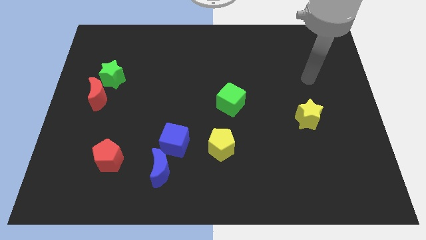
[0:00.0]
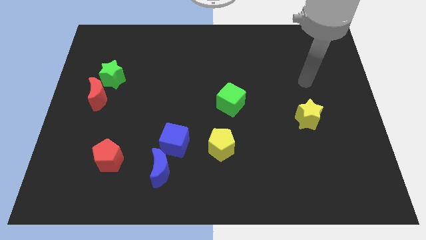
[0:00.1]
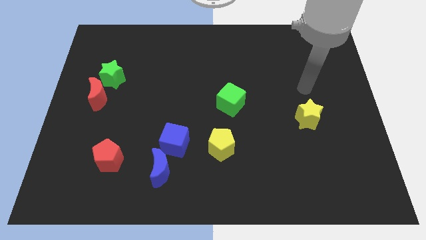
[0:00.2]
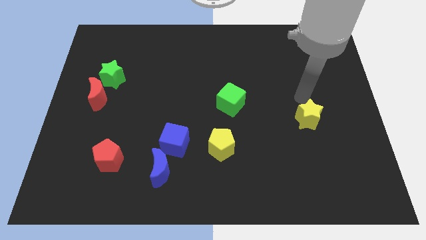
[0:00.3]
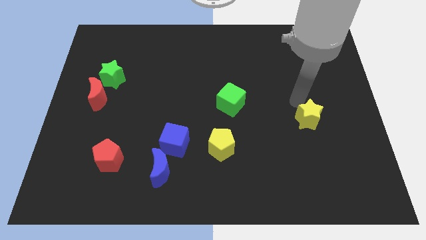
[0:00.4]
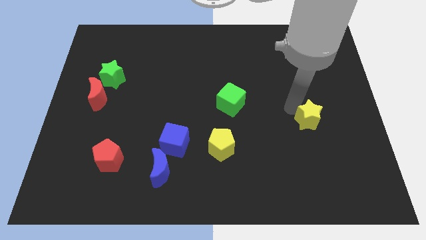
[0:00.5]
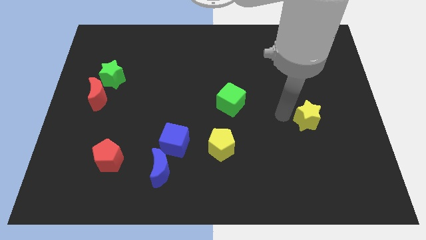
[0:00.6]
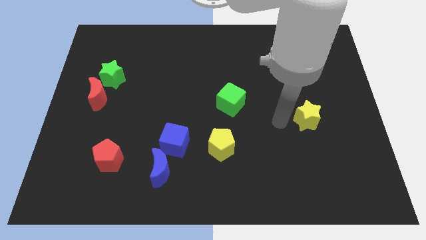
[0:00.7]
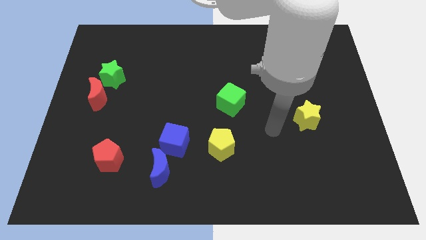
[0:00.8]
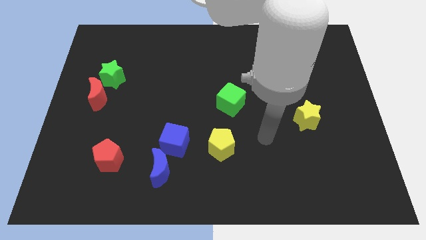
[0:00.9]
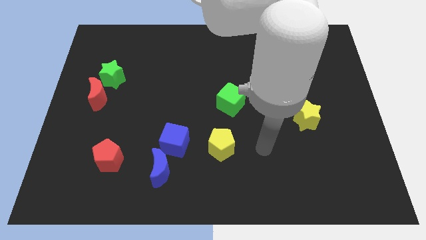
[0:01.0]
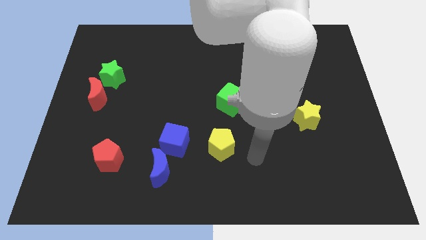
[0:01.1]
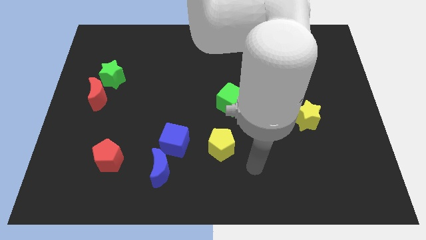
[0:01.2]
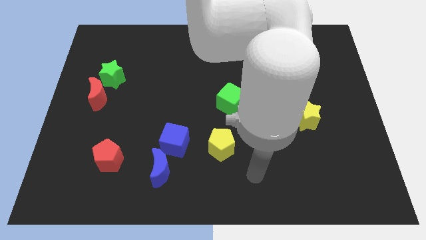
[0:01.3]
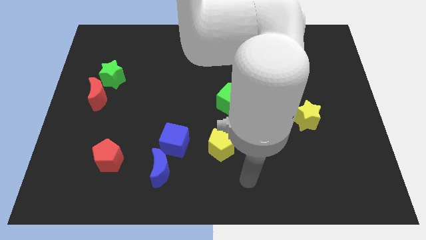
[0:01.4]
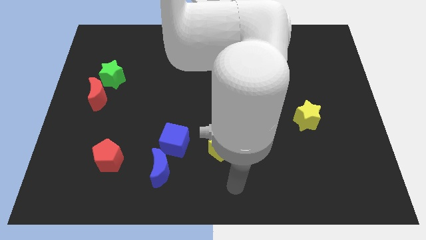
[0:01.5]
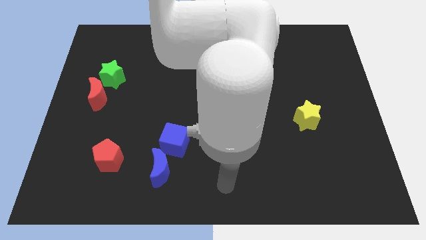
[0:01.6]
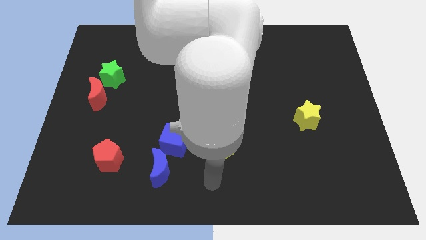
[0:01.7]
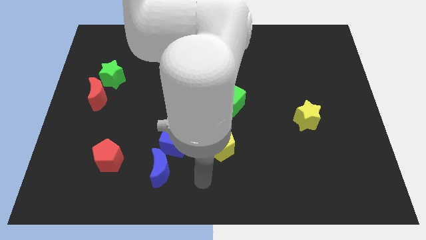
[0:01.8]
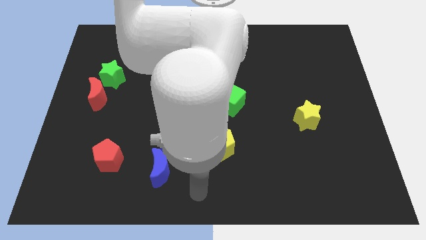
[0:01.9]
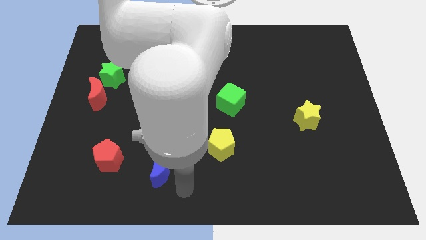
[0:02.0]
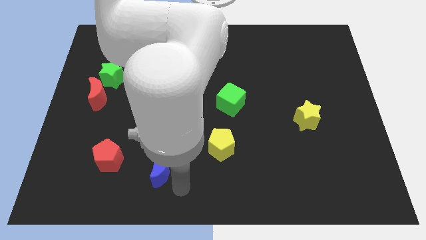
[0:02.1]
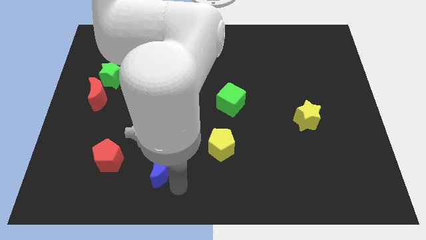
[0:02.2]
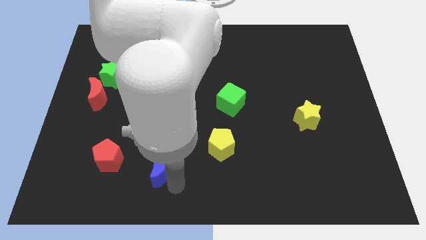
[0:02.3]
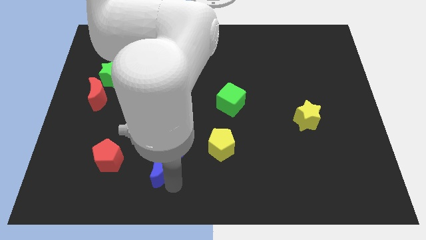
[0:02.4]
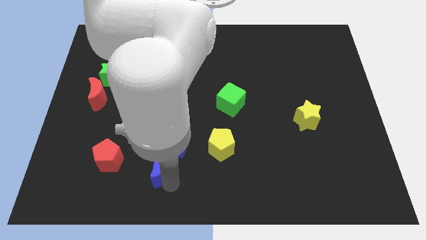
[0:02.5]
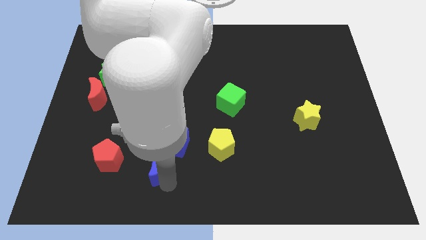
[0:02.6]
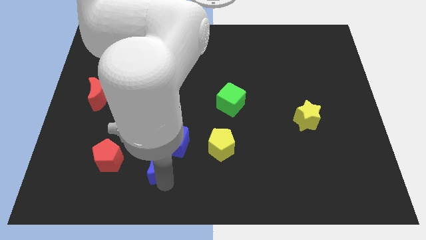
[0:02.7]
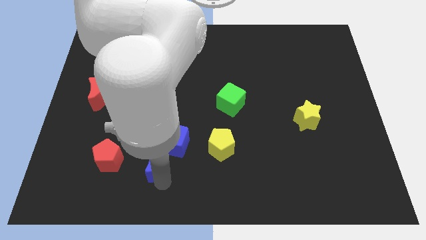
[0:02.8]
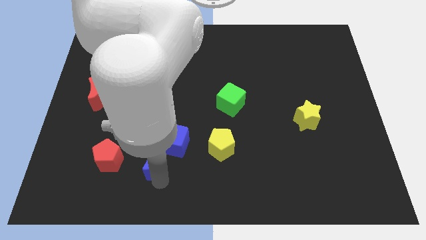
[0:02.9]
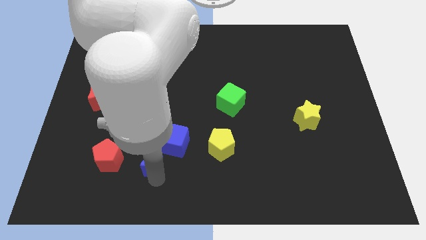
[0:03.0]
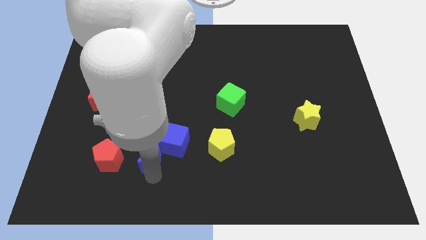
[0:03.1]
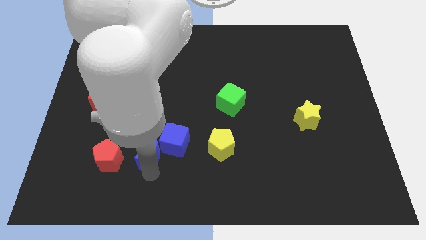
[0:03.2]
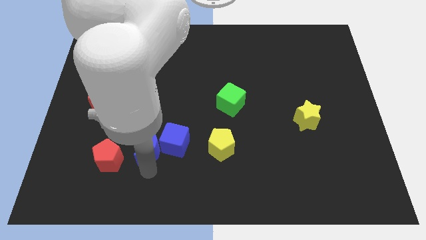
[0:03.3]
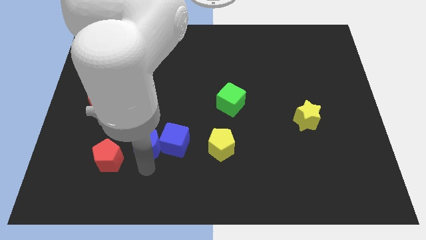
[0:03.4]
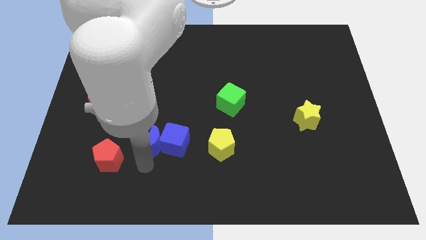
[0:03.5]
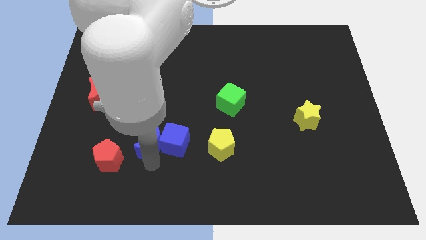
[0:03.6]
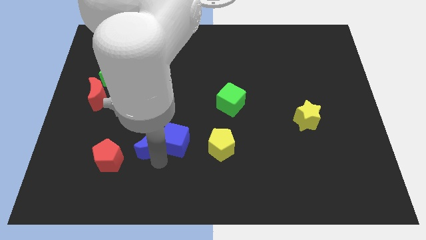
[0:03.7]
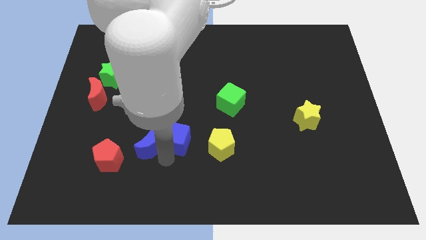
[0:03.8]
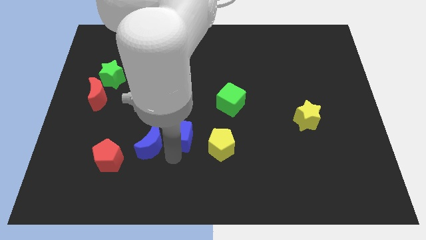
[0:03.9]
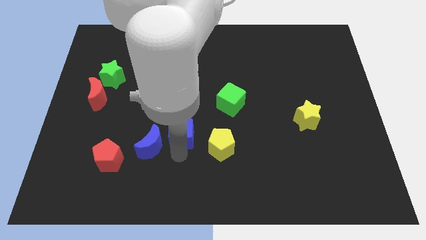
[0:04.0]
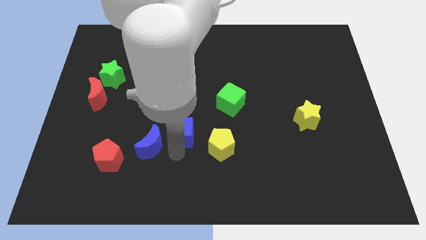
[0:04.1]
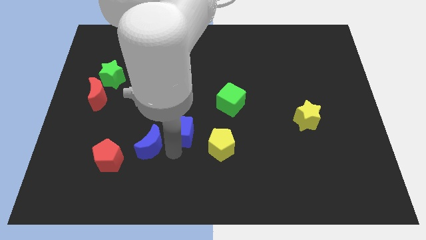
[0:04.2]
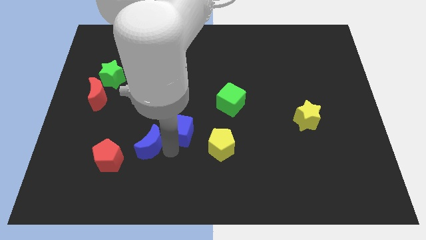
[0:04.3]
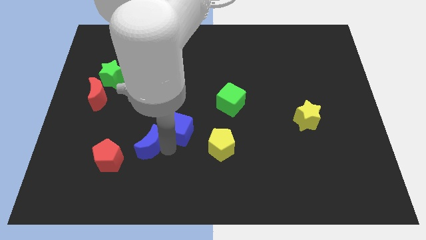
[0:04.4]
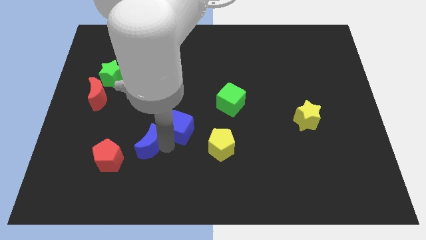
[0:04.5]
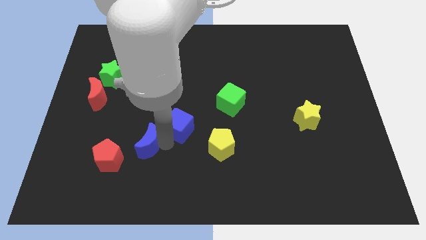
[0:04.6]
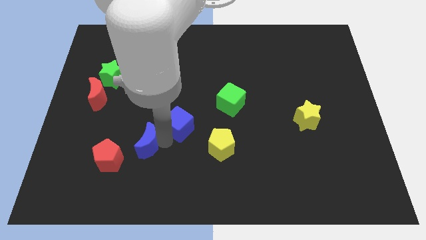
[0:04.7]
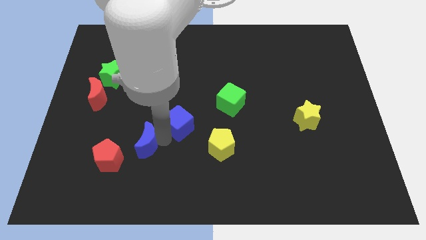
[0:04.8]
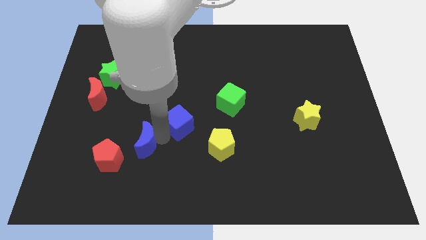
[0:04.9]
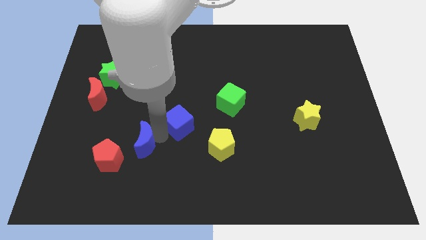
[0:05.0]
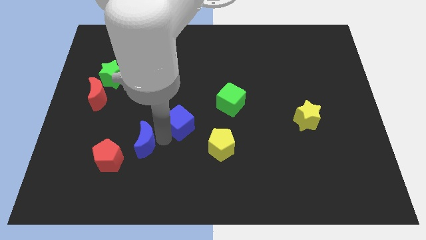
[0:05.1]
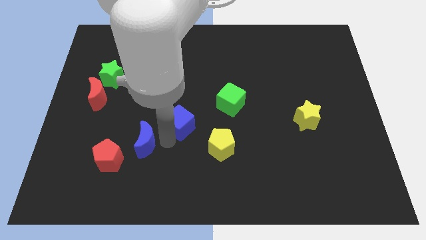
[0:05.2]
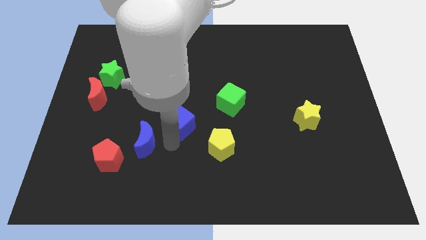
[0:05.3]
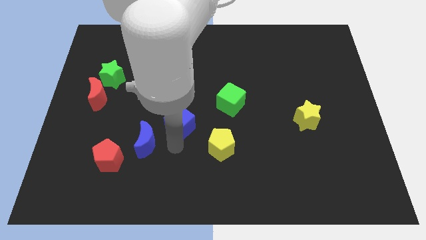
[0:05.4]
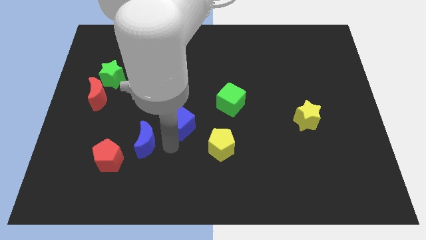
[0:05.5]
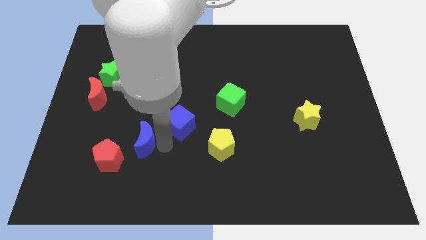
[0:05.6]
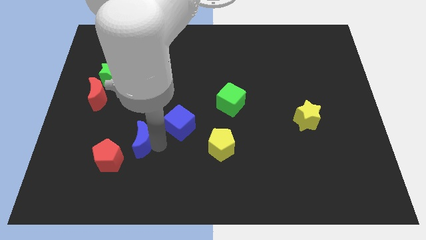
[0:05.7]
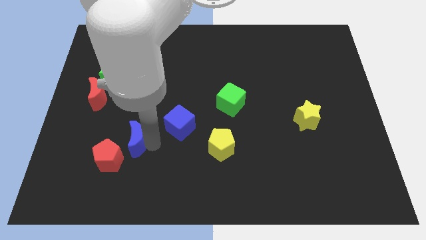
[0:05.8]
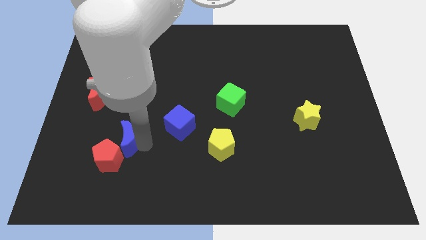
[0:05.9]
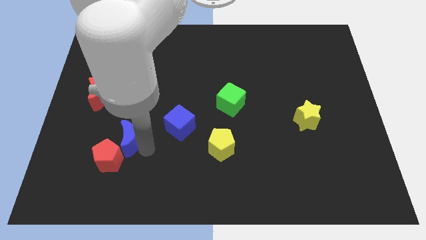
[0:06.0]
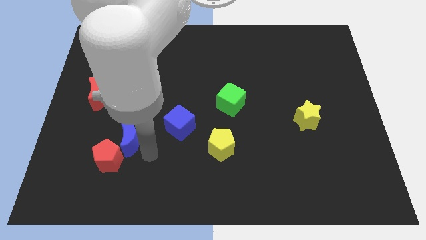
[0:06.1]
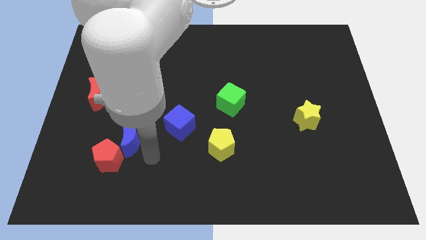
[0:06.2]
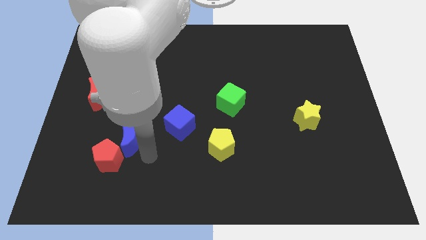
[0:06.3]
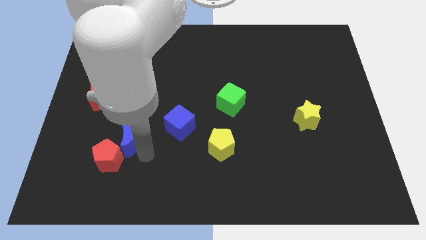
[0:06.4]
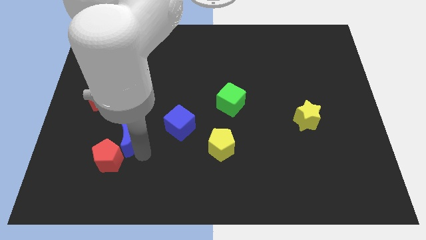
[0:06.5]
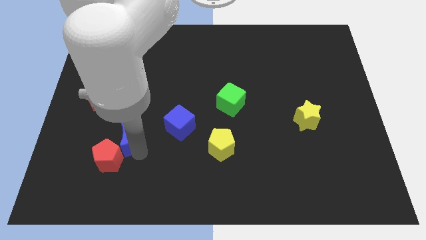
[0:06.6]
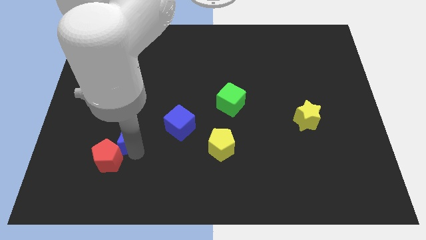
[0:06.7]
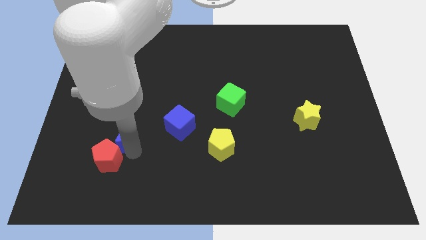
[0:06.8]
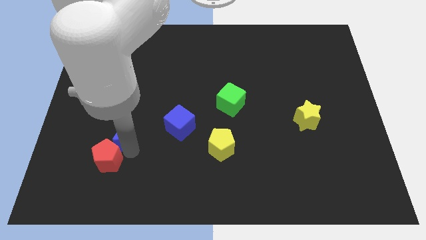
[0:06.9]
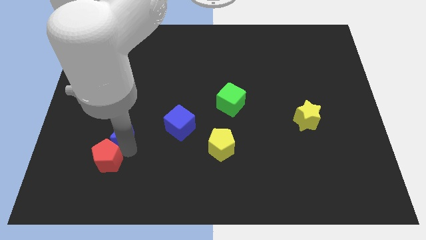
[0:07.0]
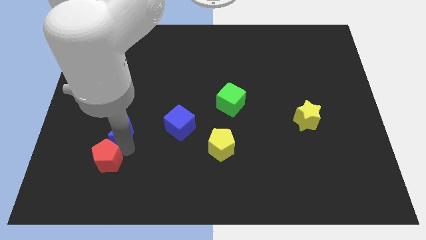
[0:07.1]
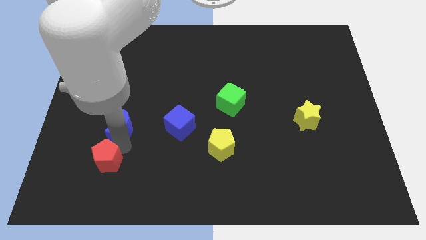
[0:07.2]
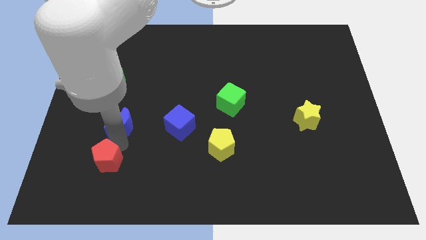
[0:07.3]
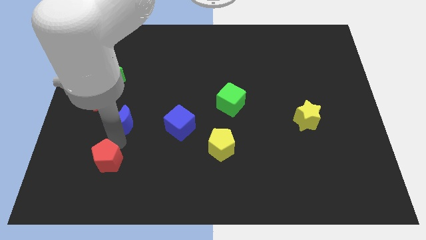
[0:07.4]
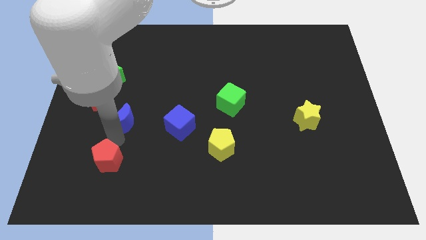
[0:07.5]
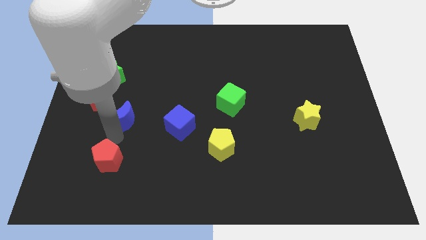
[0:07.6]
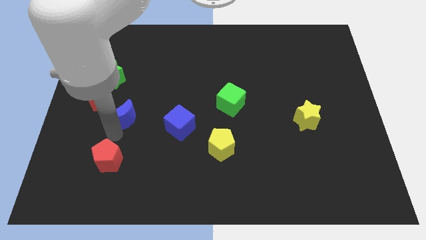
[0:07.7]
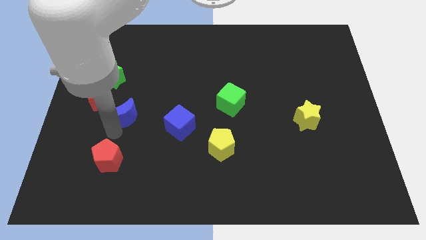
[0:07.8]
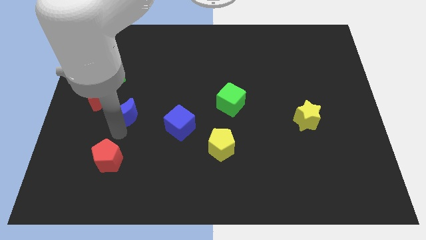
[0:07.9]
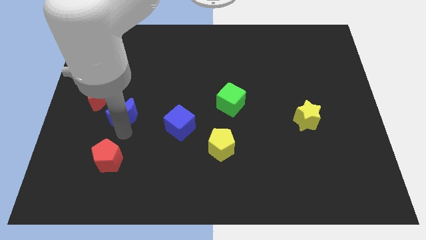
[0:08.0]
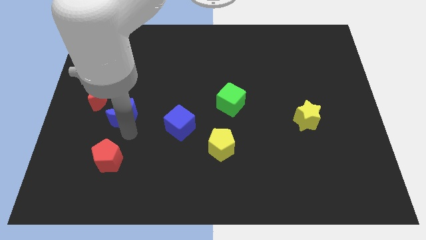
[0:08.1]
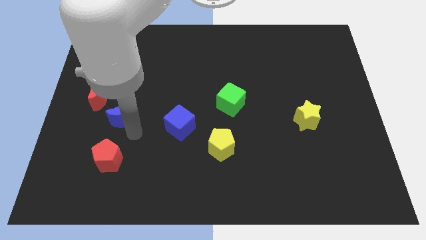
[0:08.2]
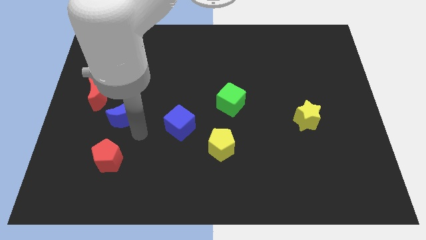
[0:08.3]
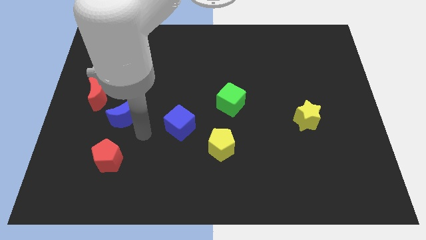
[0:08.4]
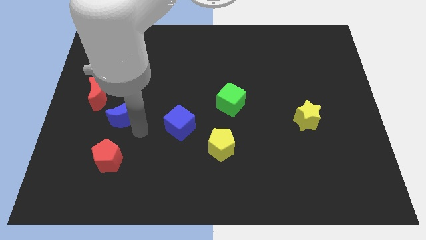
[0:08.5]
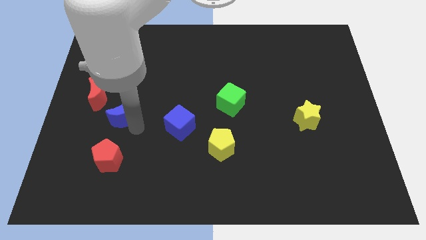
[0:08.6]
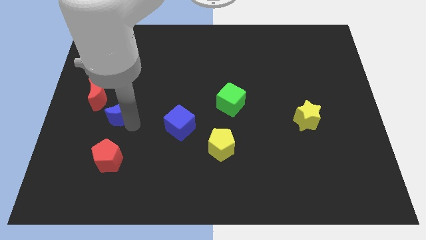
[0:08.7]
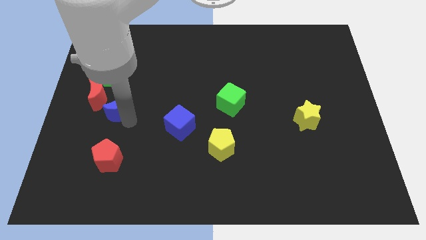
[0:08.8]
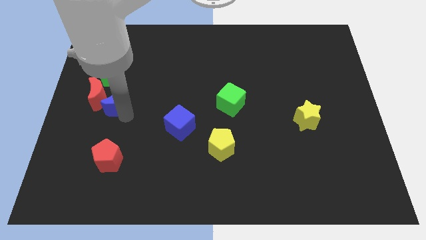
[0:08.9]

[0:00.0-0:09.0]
move the blue moon next to the red moon
